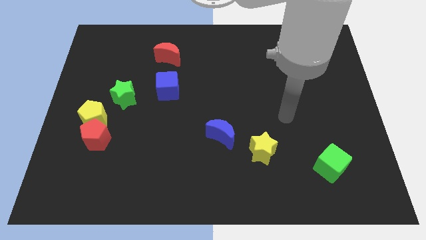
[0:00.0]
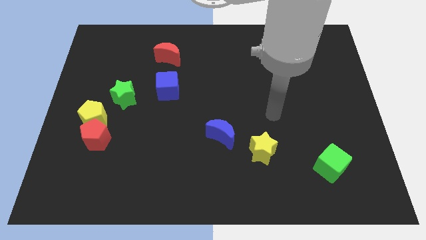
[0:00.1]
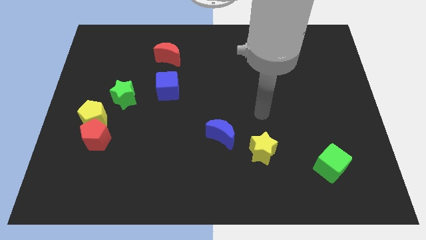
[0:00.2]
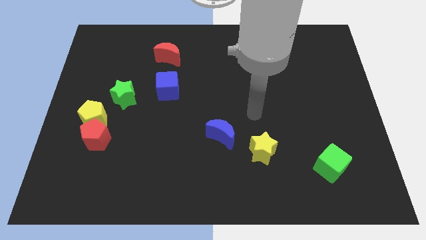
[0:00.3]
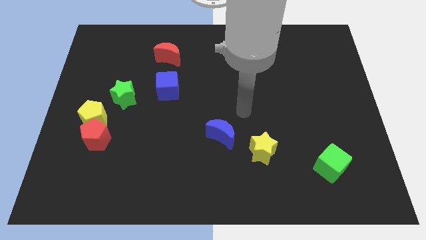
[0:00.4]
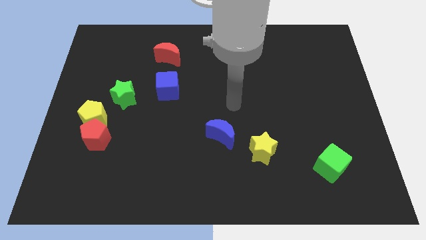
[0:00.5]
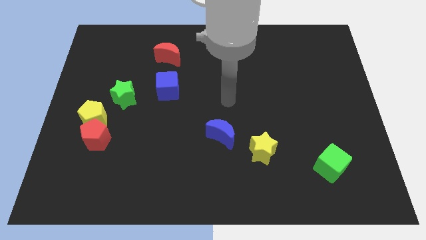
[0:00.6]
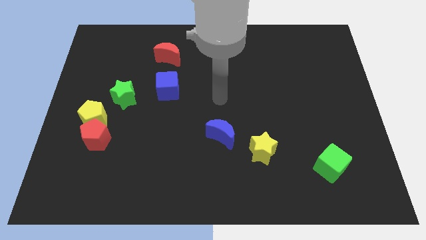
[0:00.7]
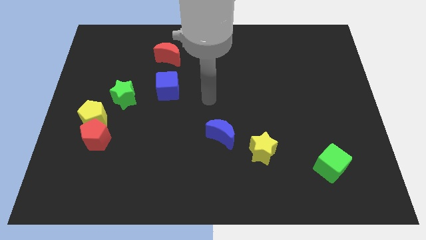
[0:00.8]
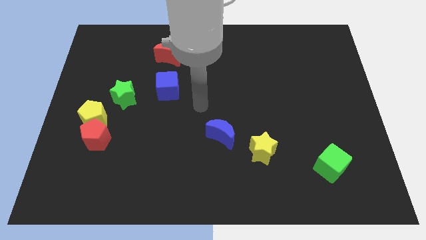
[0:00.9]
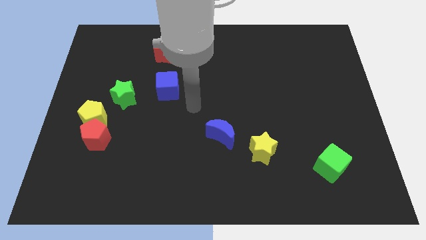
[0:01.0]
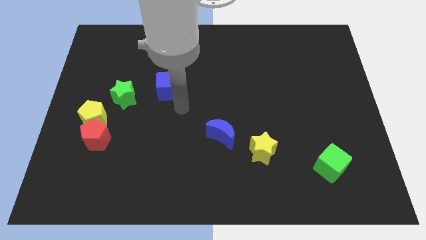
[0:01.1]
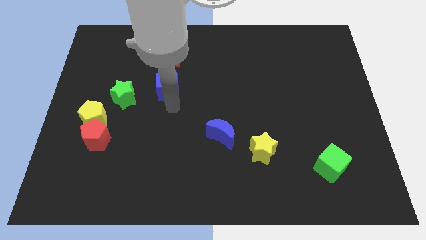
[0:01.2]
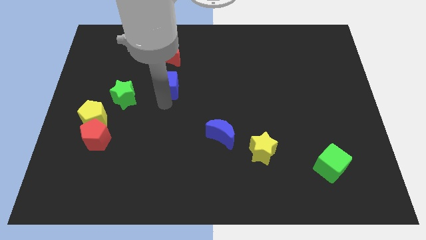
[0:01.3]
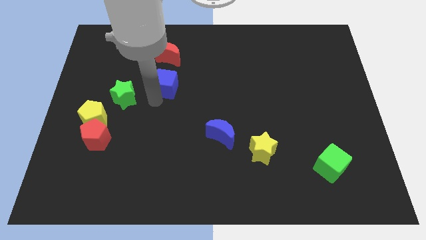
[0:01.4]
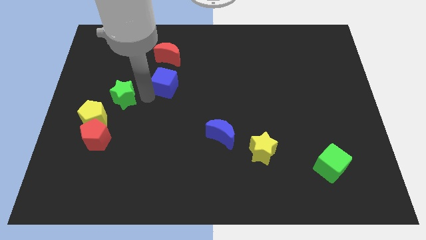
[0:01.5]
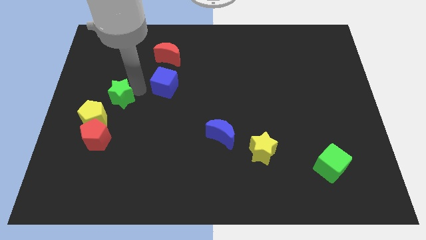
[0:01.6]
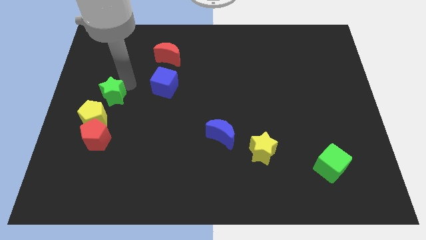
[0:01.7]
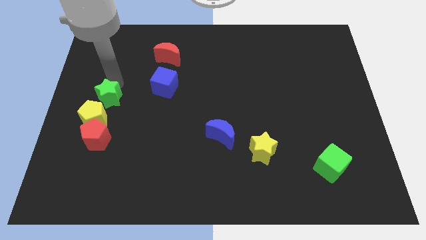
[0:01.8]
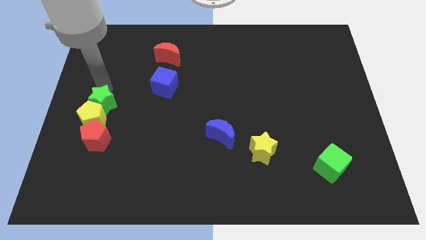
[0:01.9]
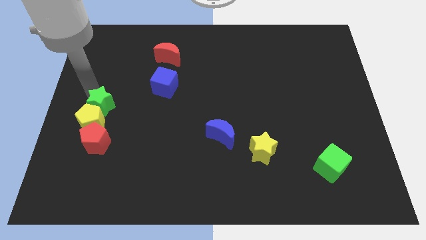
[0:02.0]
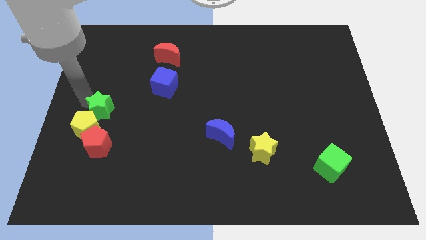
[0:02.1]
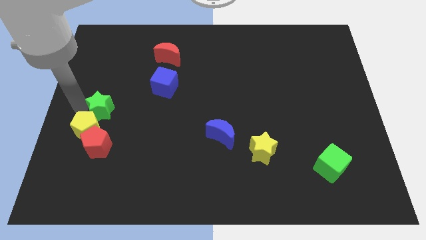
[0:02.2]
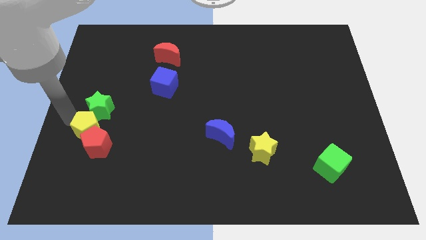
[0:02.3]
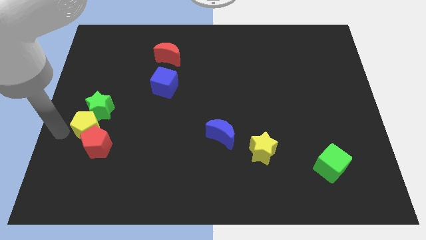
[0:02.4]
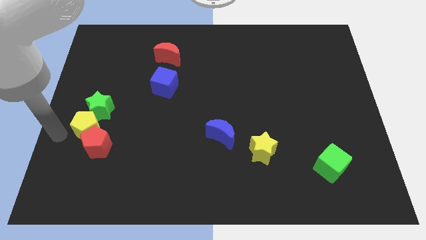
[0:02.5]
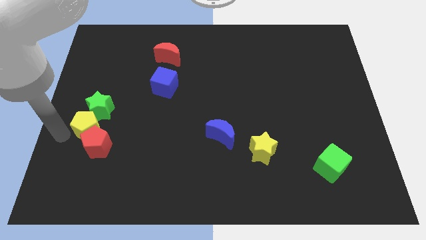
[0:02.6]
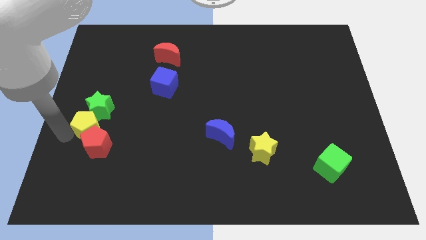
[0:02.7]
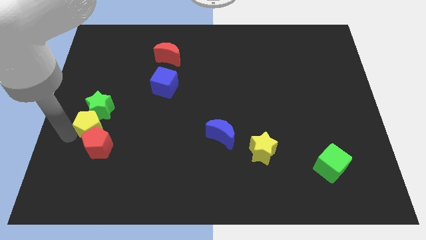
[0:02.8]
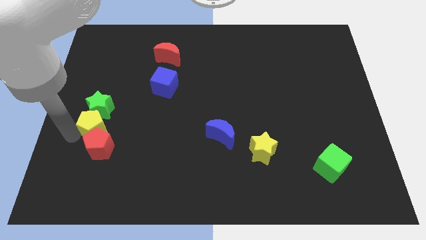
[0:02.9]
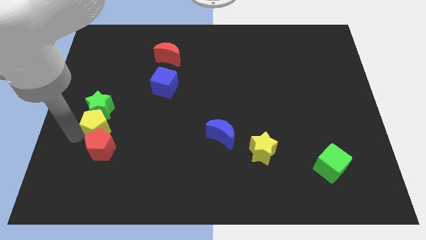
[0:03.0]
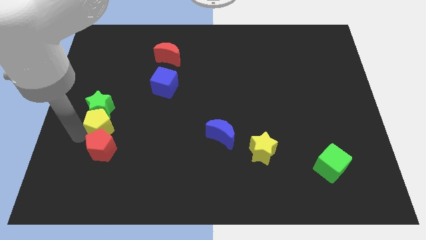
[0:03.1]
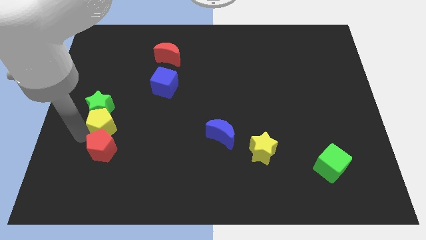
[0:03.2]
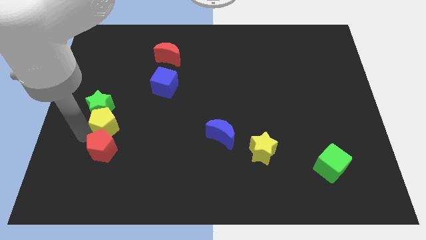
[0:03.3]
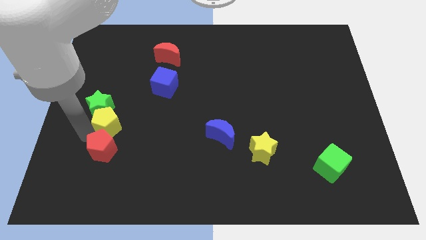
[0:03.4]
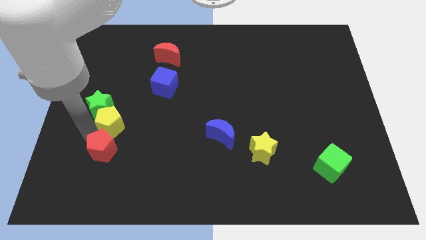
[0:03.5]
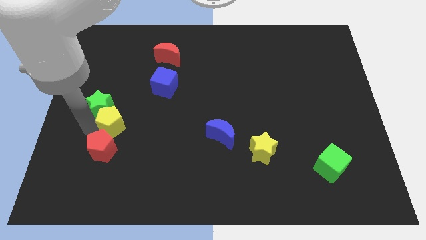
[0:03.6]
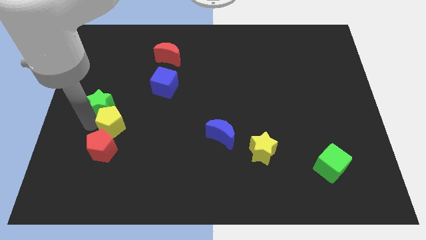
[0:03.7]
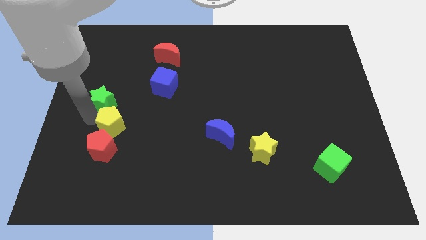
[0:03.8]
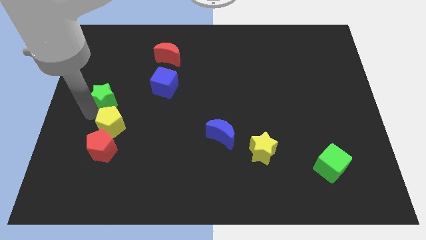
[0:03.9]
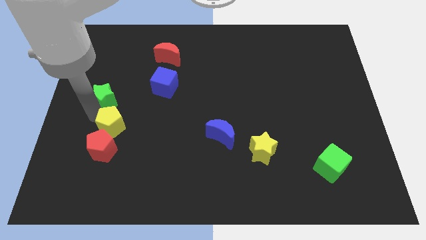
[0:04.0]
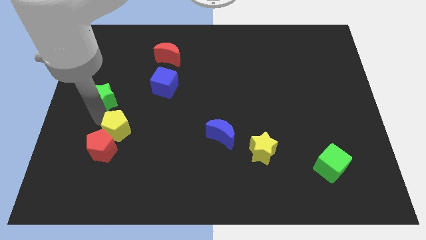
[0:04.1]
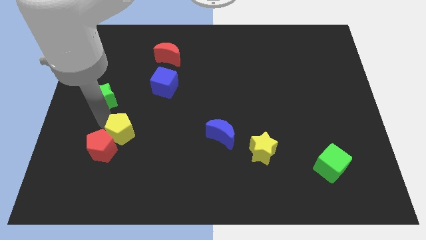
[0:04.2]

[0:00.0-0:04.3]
move the yellow pentagon a little diagonally down and to the right

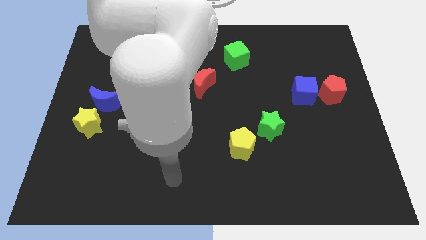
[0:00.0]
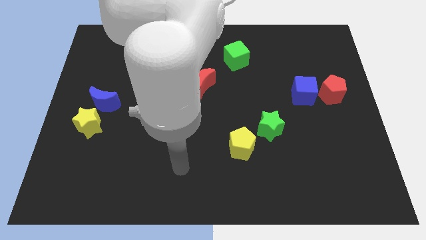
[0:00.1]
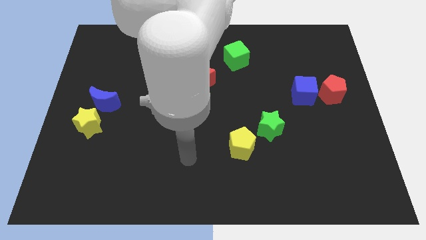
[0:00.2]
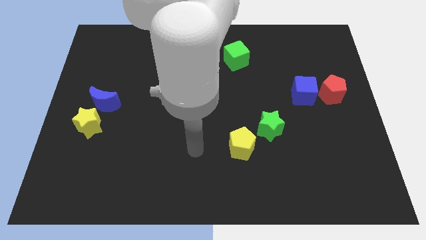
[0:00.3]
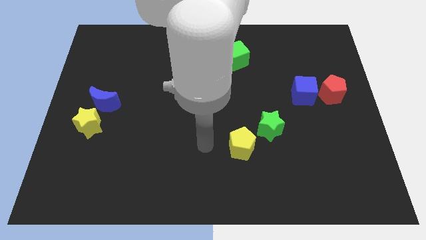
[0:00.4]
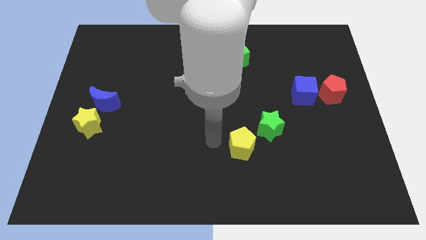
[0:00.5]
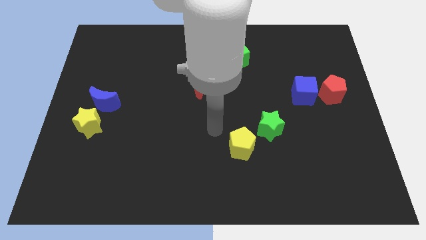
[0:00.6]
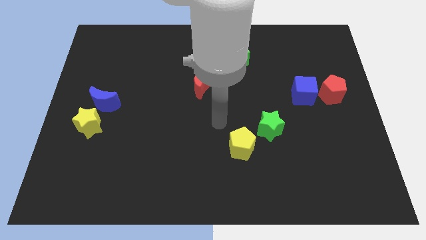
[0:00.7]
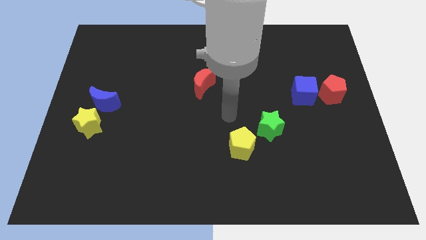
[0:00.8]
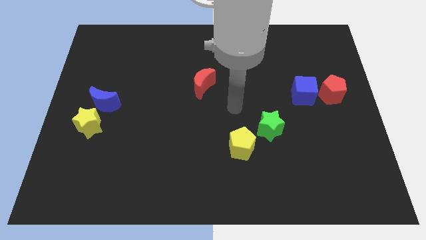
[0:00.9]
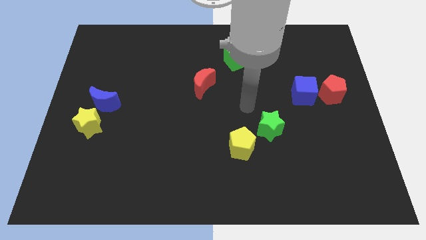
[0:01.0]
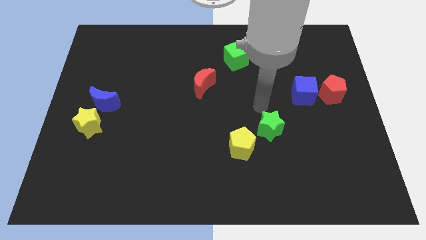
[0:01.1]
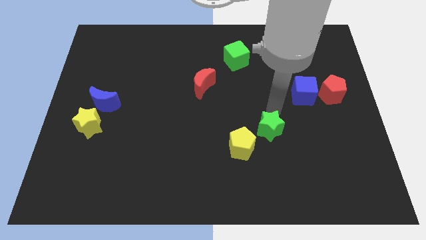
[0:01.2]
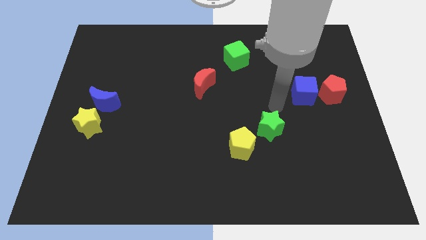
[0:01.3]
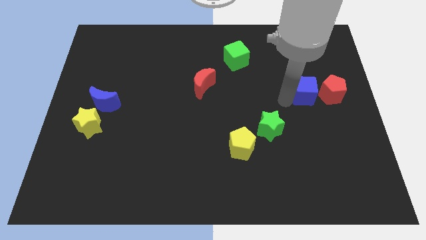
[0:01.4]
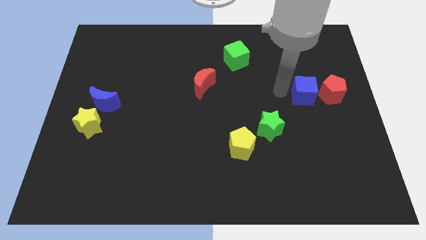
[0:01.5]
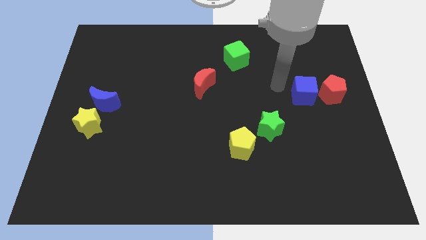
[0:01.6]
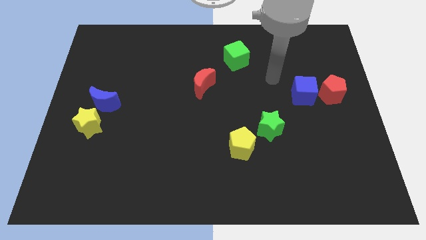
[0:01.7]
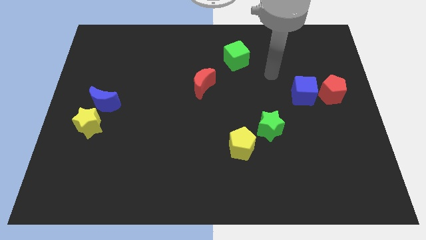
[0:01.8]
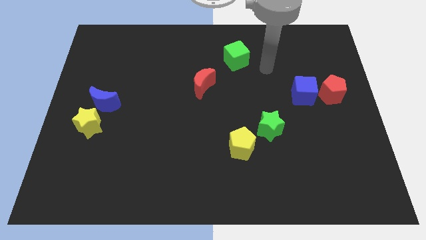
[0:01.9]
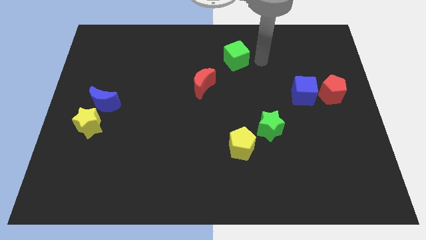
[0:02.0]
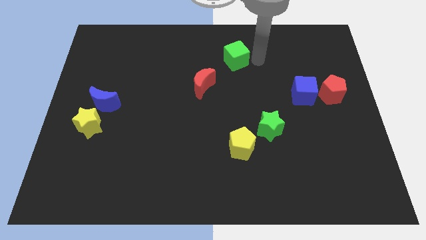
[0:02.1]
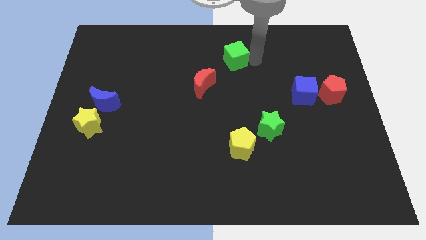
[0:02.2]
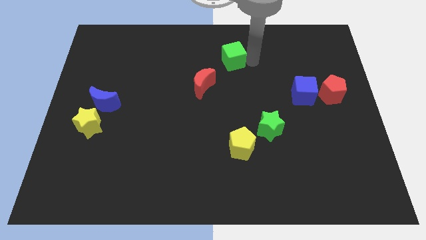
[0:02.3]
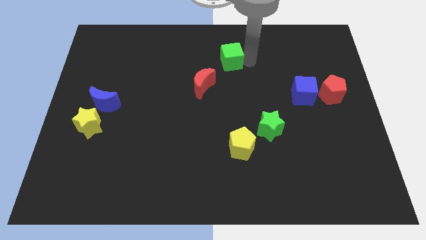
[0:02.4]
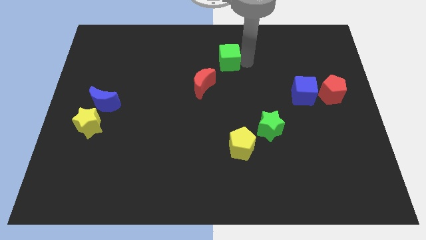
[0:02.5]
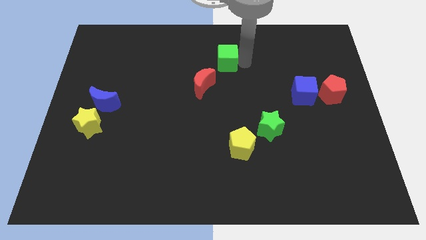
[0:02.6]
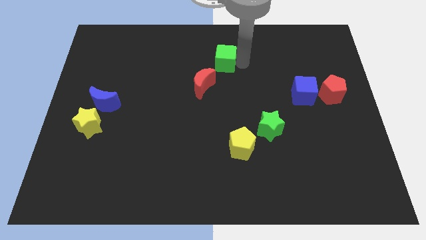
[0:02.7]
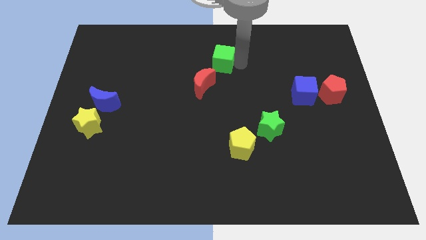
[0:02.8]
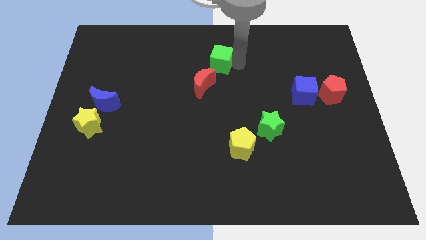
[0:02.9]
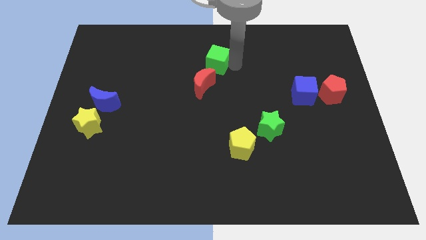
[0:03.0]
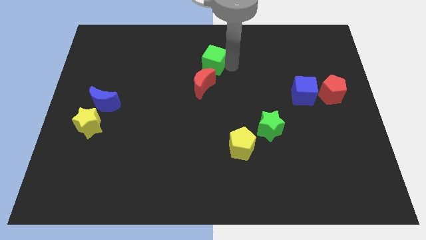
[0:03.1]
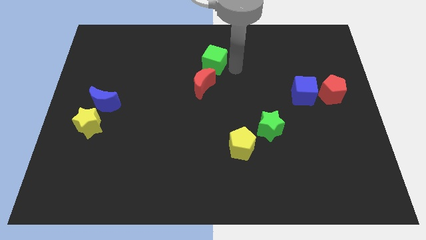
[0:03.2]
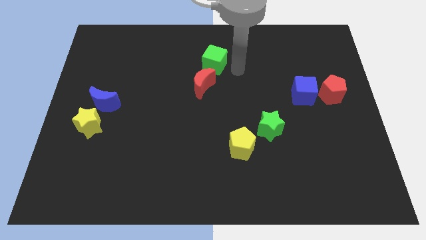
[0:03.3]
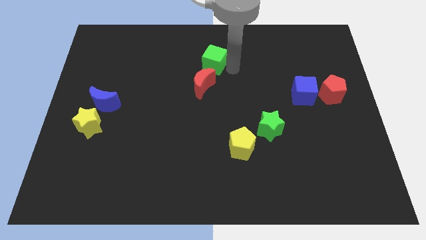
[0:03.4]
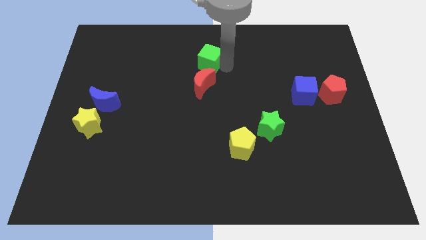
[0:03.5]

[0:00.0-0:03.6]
move the green cube slightly left
